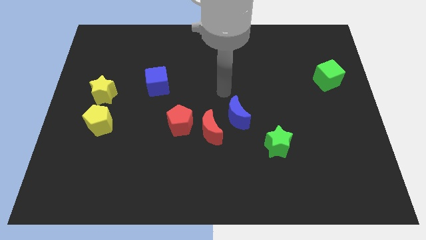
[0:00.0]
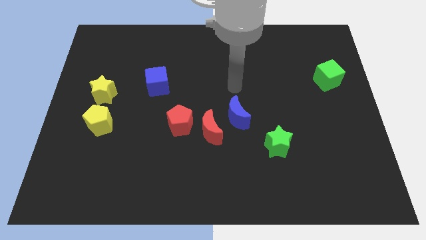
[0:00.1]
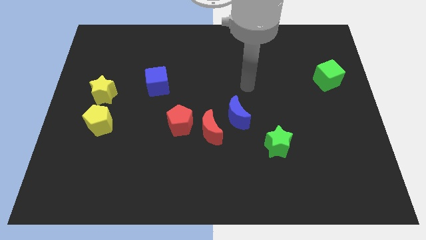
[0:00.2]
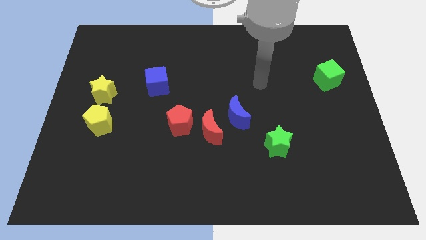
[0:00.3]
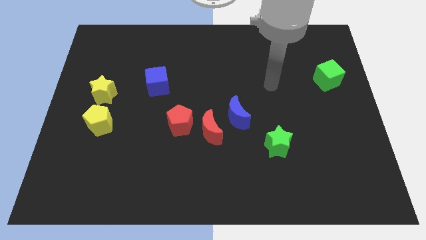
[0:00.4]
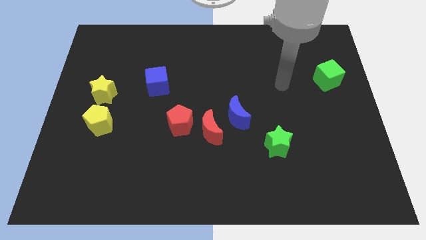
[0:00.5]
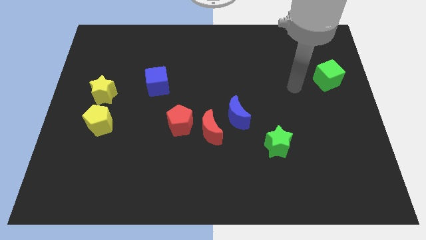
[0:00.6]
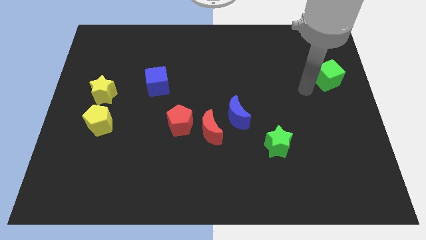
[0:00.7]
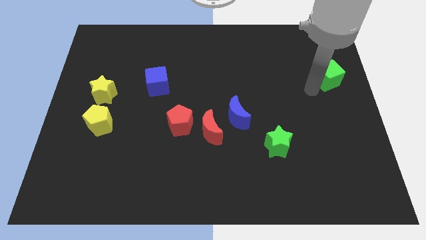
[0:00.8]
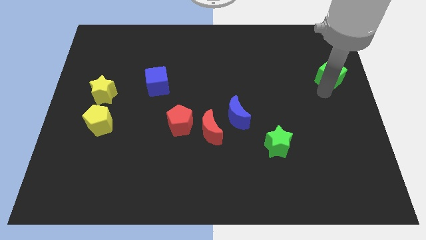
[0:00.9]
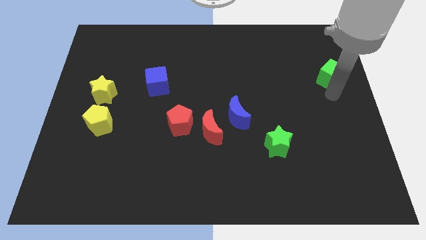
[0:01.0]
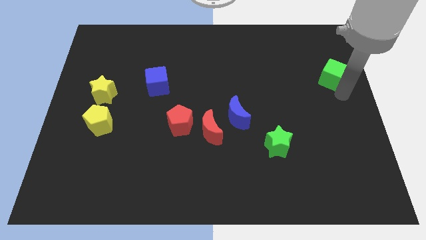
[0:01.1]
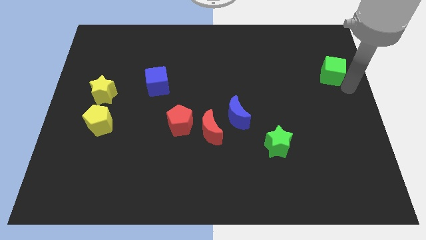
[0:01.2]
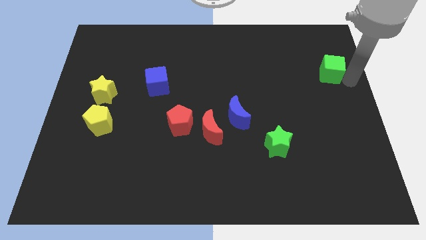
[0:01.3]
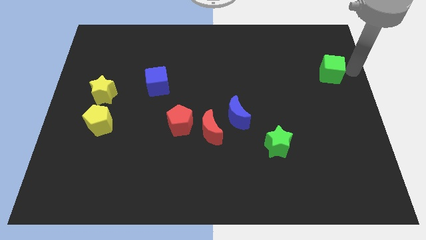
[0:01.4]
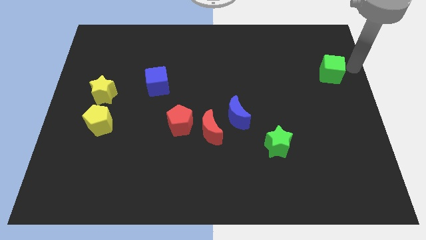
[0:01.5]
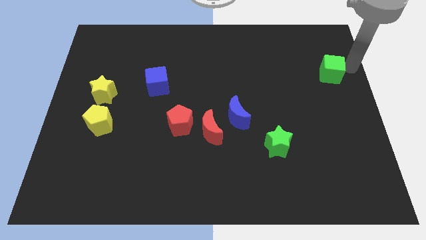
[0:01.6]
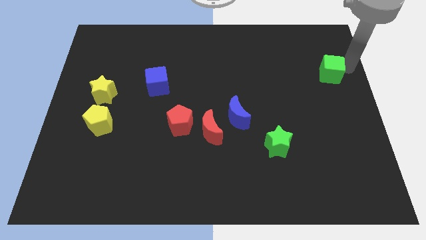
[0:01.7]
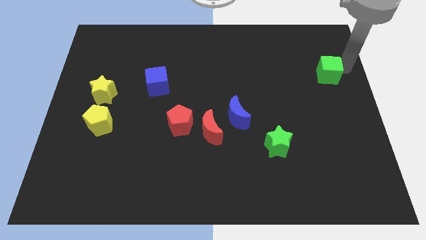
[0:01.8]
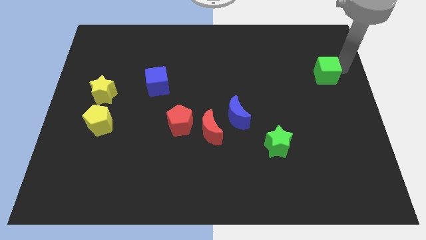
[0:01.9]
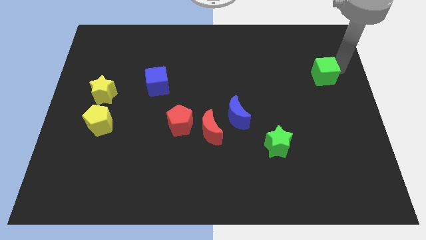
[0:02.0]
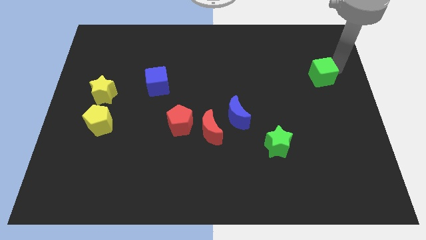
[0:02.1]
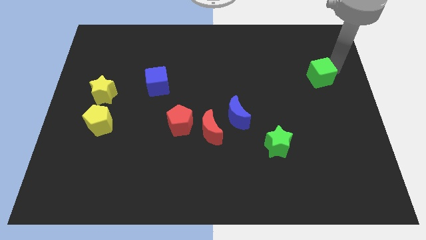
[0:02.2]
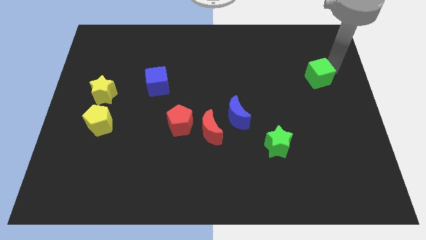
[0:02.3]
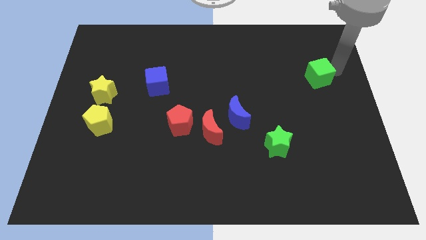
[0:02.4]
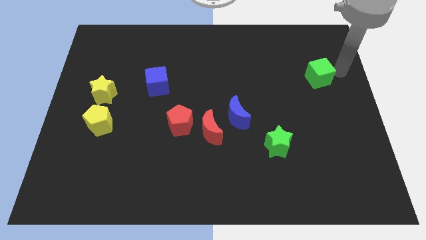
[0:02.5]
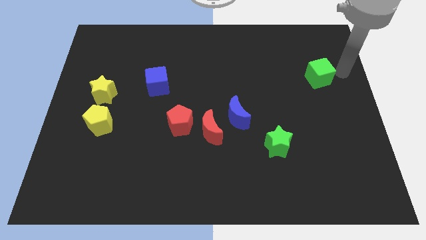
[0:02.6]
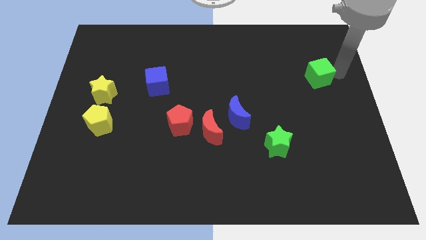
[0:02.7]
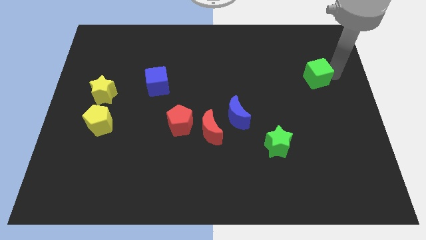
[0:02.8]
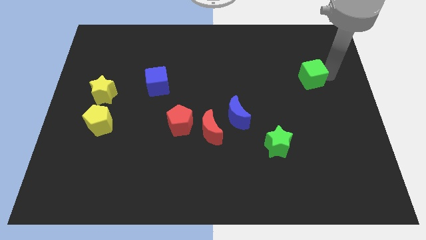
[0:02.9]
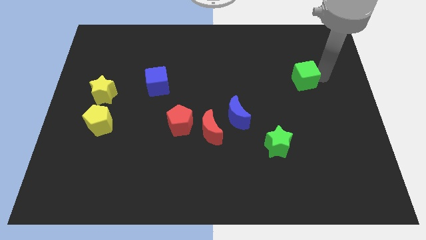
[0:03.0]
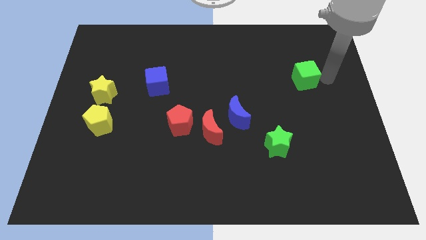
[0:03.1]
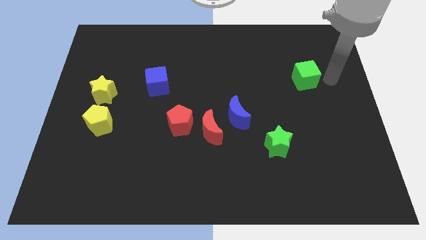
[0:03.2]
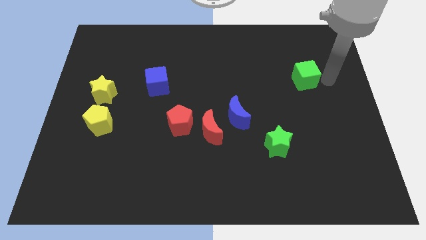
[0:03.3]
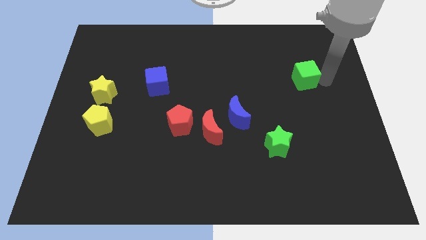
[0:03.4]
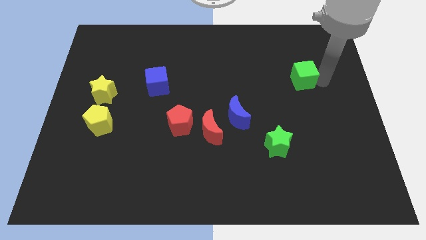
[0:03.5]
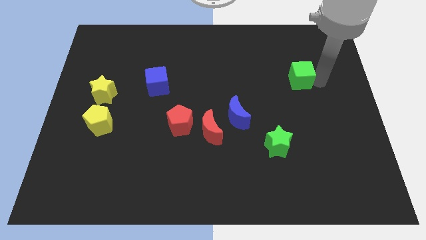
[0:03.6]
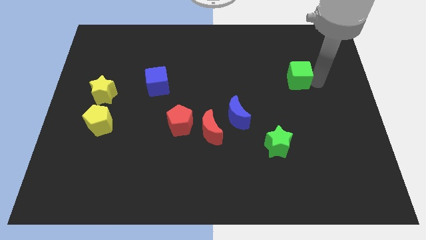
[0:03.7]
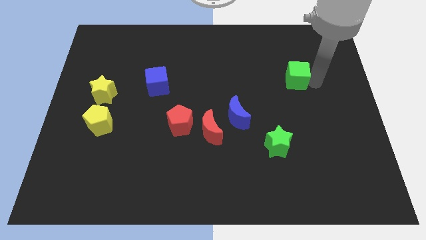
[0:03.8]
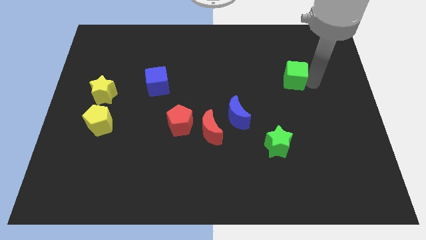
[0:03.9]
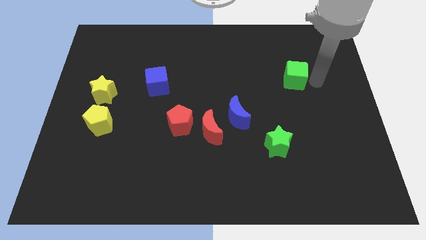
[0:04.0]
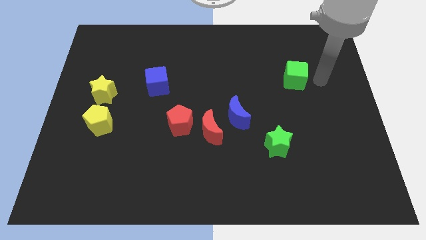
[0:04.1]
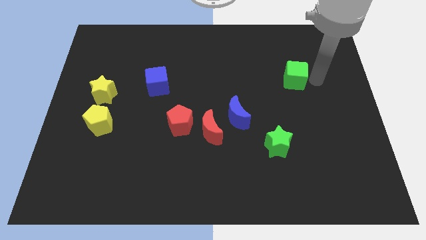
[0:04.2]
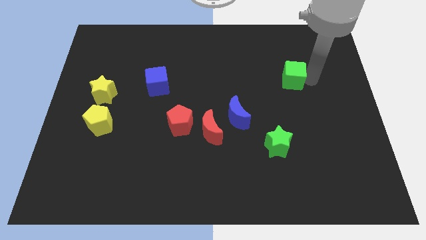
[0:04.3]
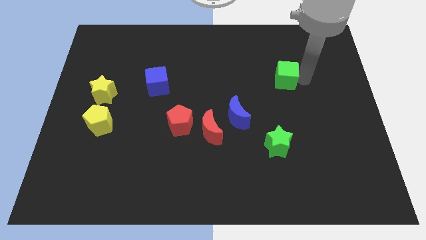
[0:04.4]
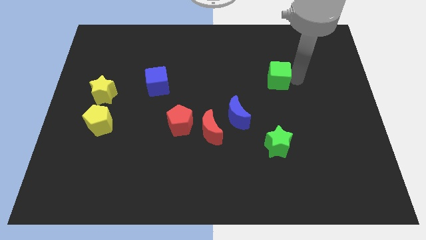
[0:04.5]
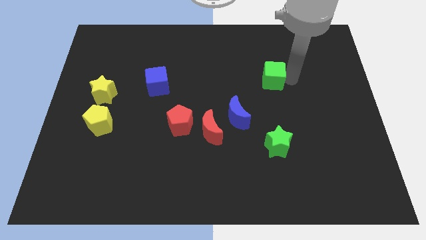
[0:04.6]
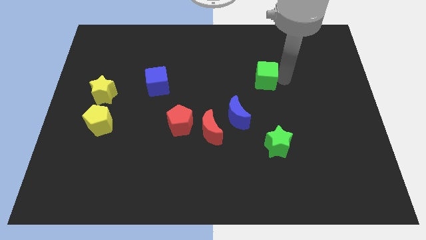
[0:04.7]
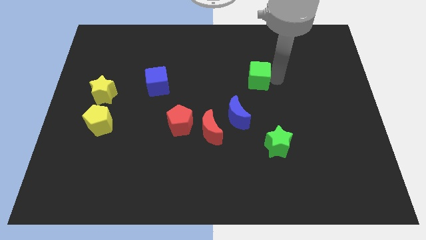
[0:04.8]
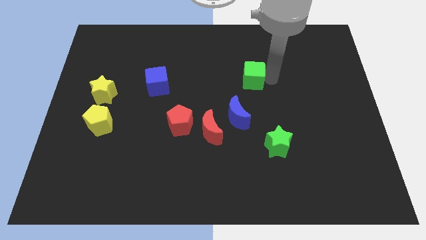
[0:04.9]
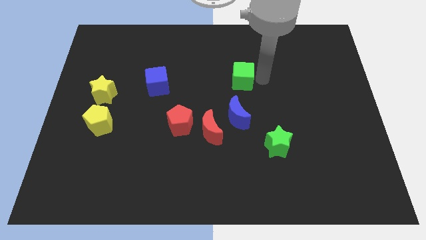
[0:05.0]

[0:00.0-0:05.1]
slide the green cube to the left

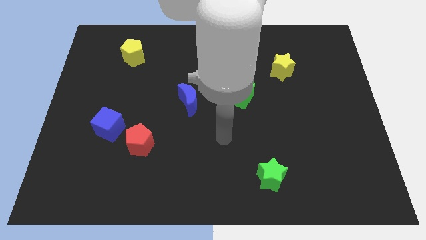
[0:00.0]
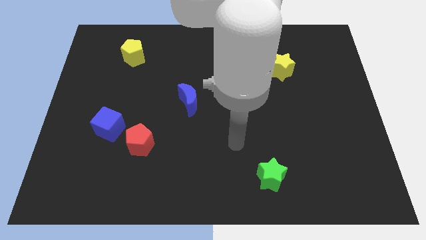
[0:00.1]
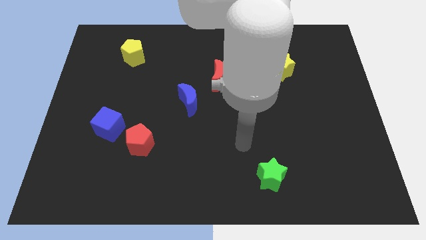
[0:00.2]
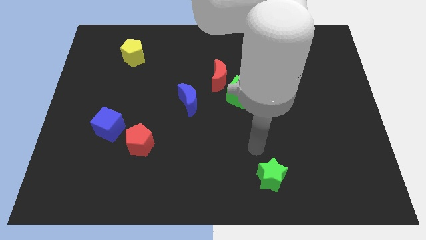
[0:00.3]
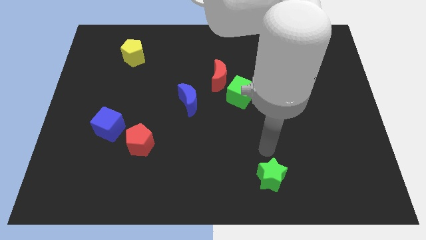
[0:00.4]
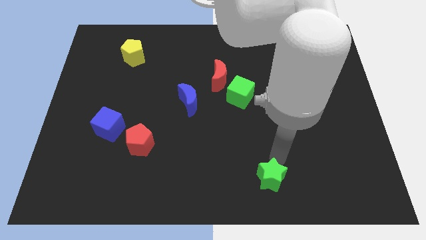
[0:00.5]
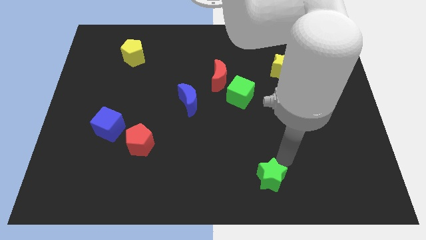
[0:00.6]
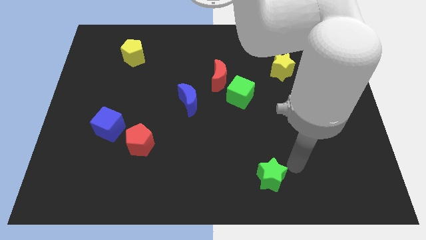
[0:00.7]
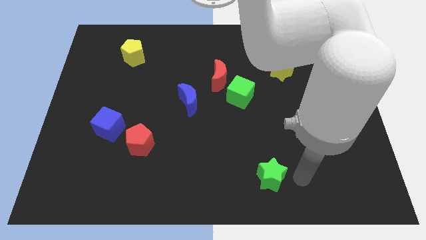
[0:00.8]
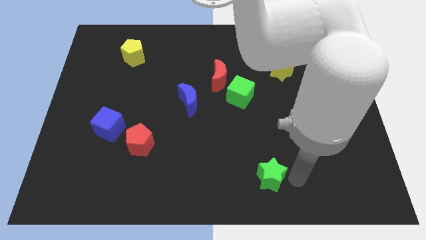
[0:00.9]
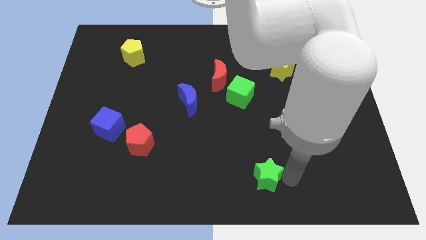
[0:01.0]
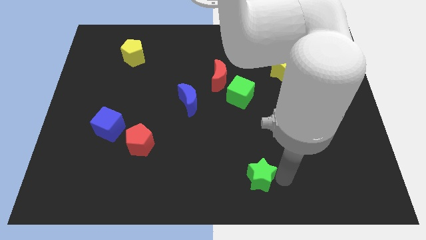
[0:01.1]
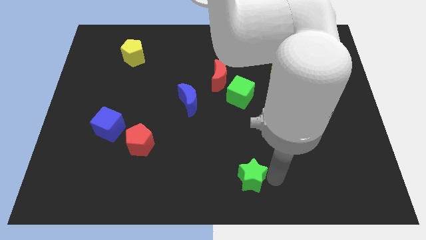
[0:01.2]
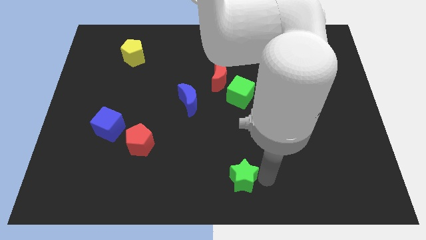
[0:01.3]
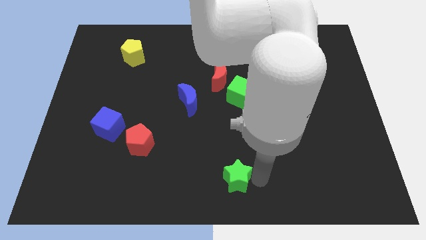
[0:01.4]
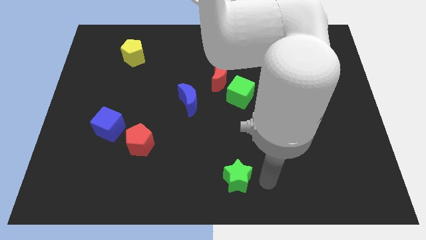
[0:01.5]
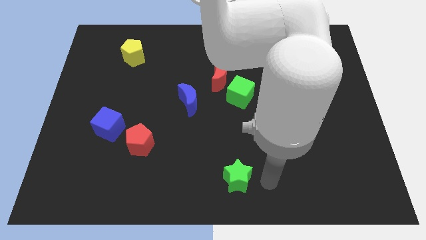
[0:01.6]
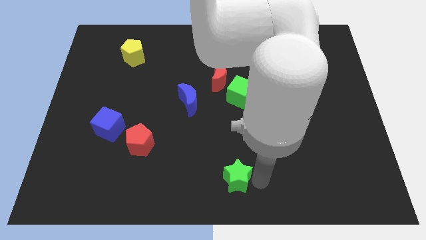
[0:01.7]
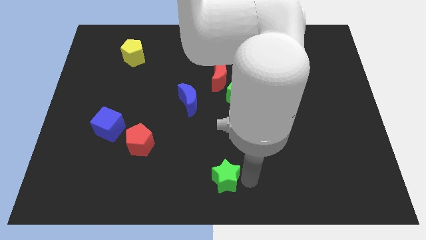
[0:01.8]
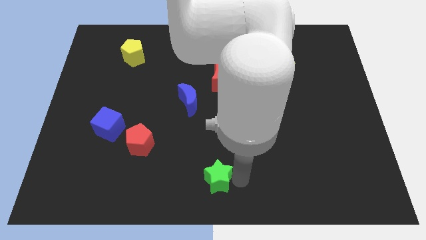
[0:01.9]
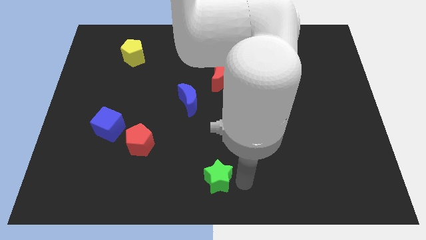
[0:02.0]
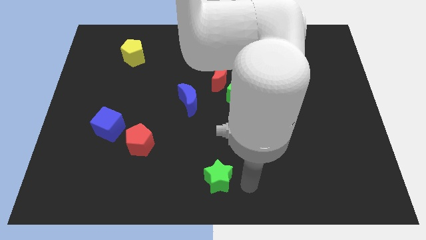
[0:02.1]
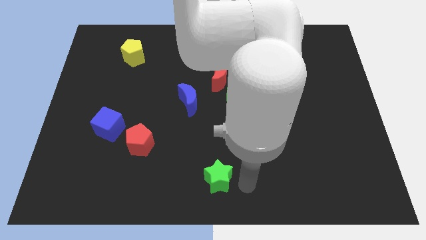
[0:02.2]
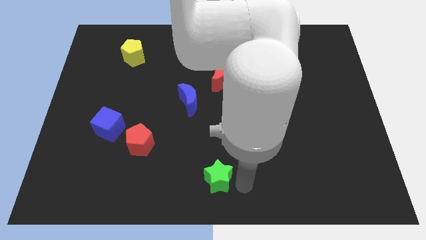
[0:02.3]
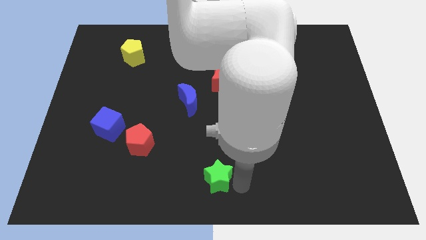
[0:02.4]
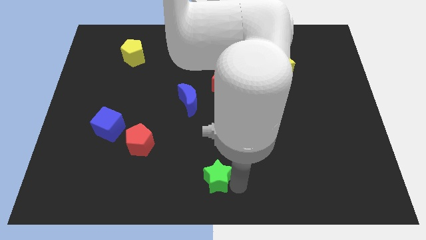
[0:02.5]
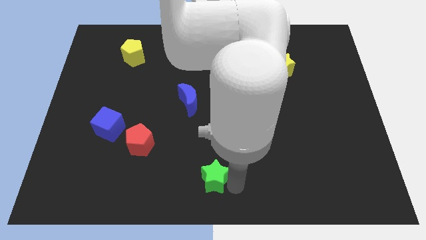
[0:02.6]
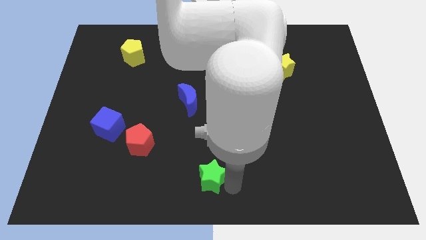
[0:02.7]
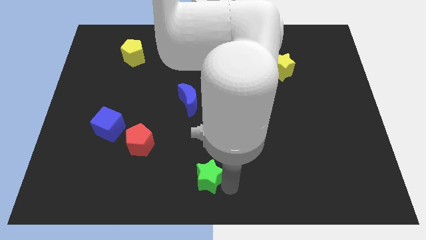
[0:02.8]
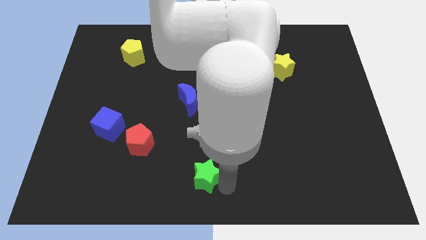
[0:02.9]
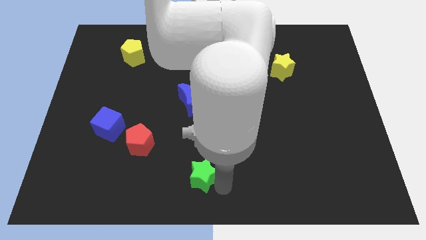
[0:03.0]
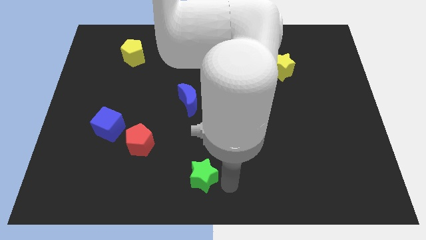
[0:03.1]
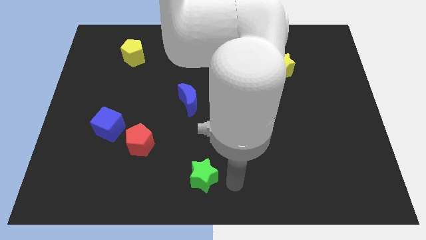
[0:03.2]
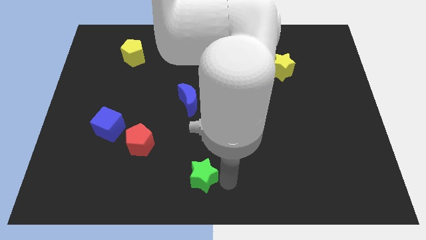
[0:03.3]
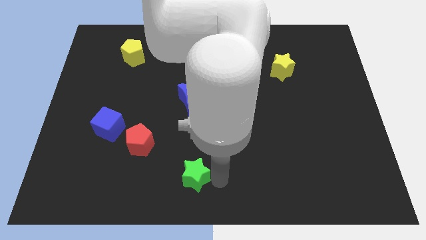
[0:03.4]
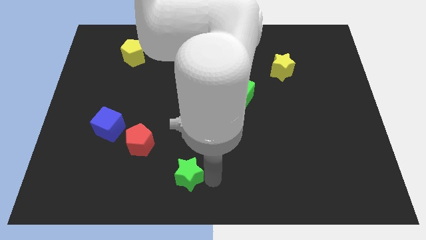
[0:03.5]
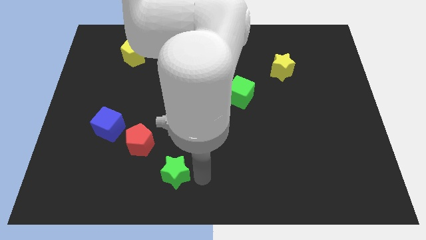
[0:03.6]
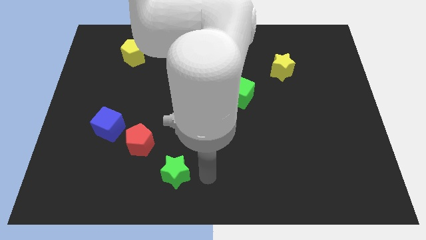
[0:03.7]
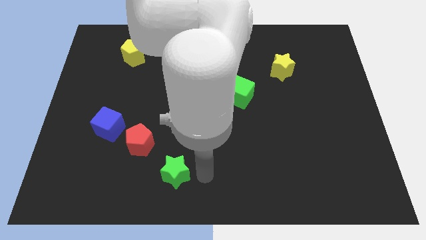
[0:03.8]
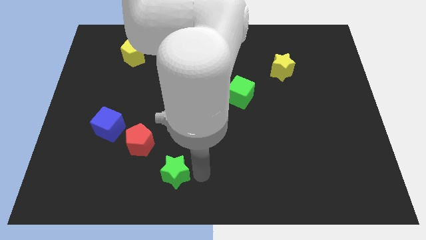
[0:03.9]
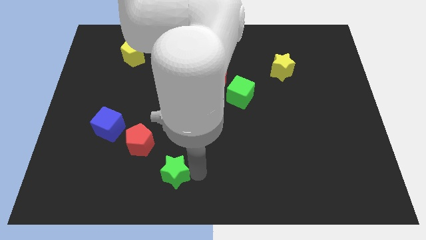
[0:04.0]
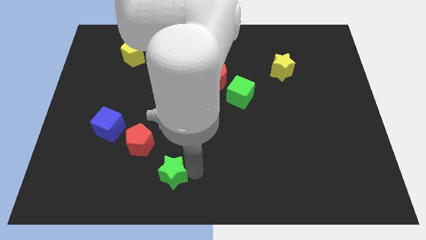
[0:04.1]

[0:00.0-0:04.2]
move the green star left
